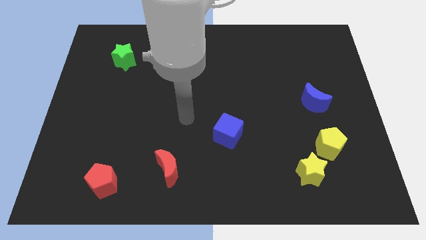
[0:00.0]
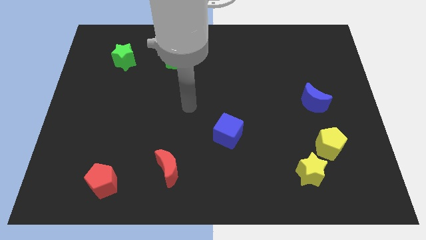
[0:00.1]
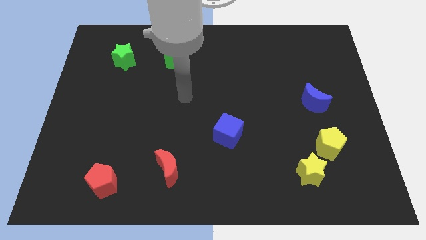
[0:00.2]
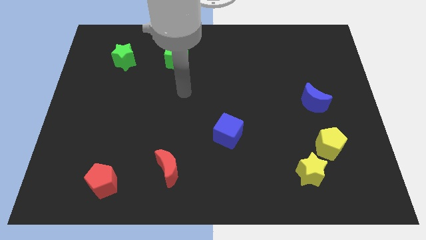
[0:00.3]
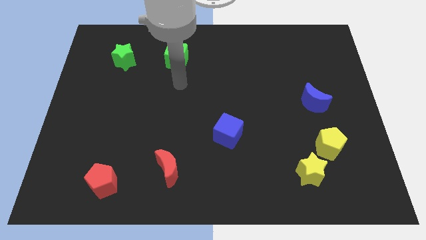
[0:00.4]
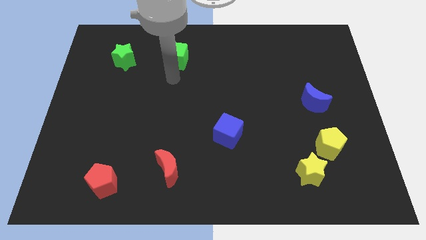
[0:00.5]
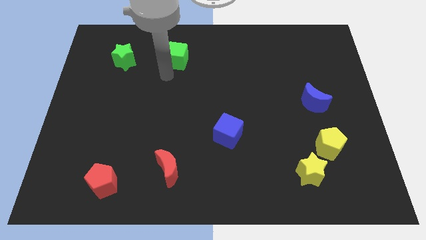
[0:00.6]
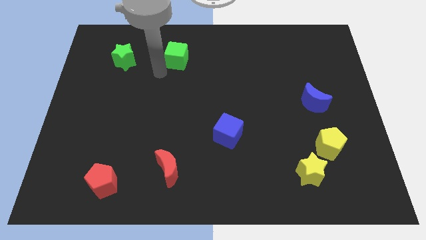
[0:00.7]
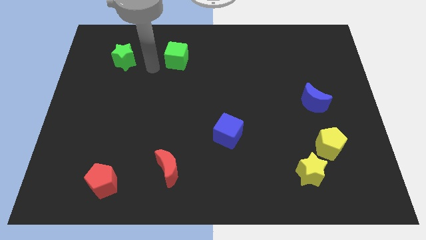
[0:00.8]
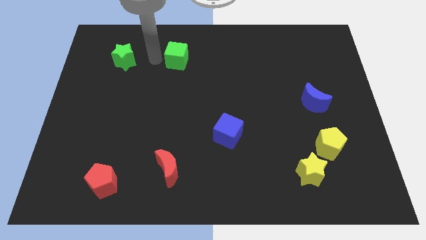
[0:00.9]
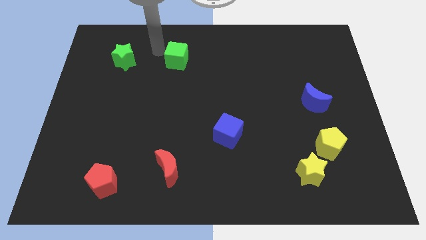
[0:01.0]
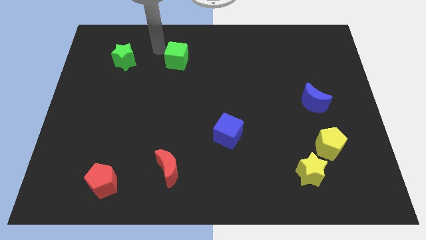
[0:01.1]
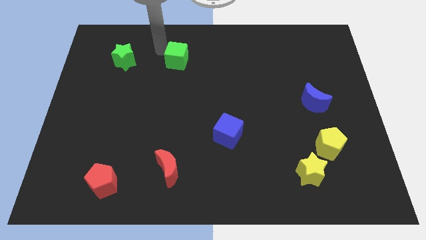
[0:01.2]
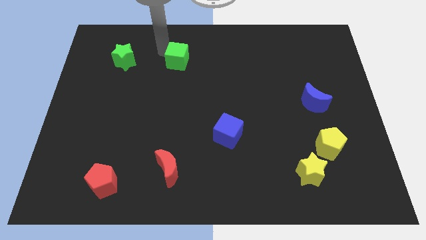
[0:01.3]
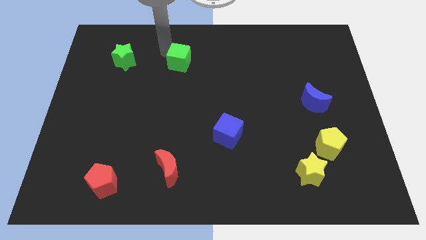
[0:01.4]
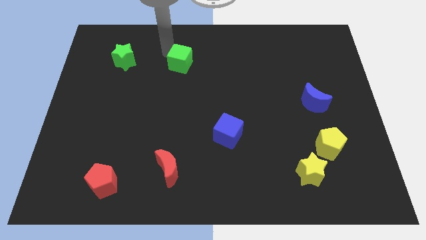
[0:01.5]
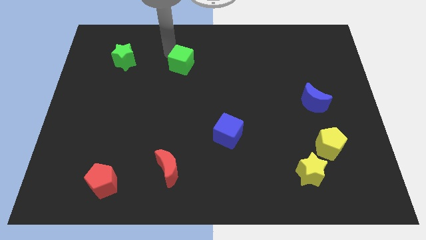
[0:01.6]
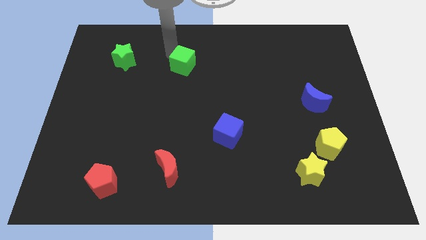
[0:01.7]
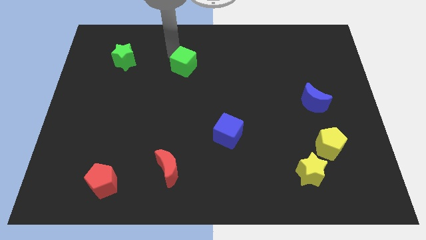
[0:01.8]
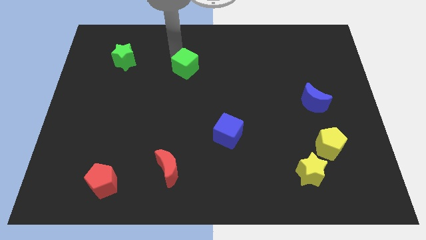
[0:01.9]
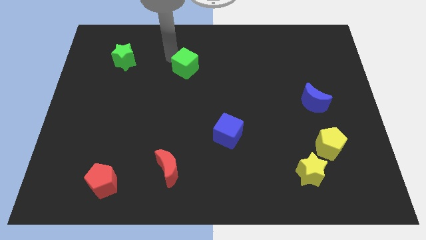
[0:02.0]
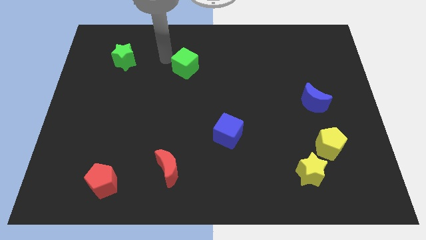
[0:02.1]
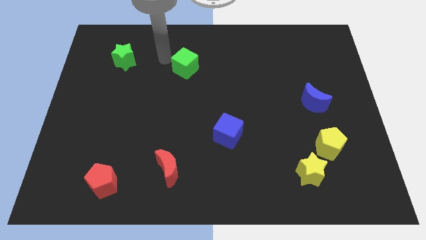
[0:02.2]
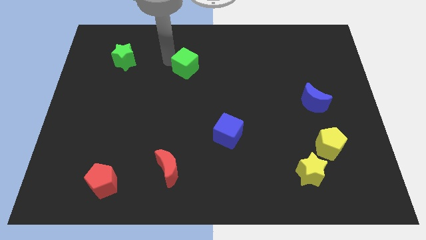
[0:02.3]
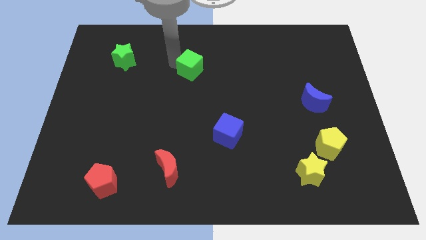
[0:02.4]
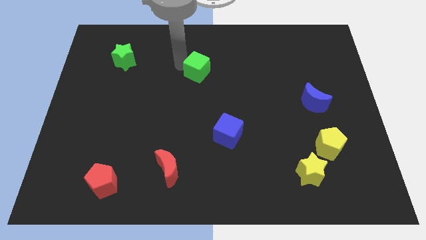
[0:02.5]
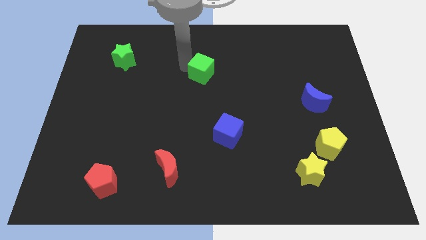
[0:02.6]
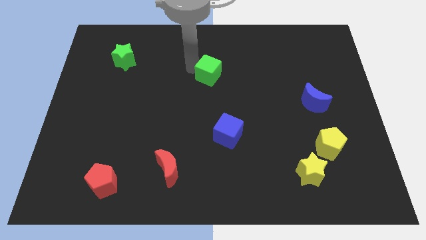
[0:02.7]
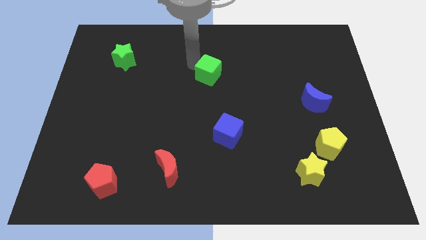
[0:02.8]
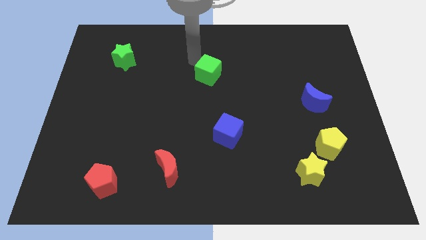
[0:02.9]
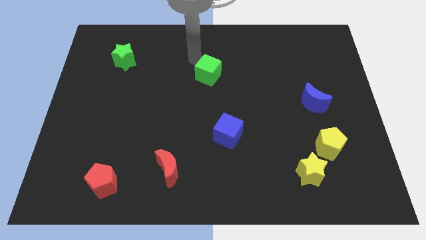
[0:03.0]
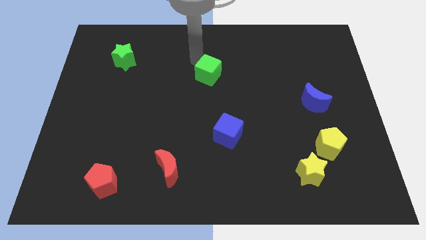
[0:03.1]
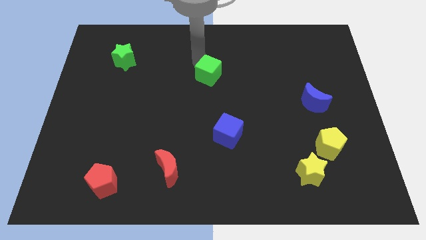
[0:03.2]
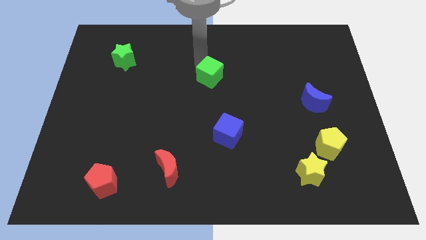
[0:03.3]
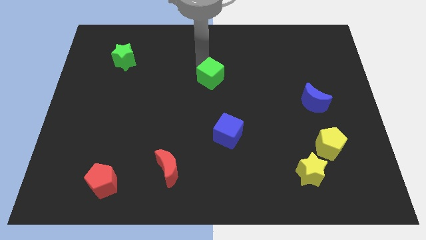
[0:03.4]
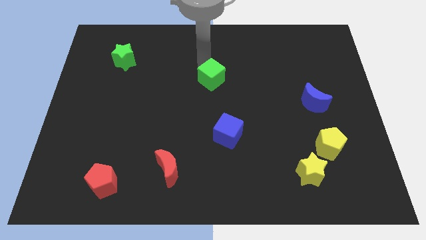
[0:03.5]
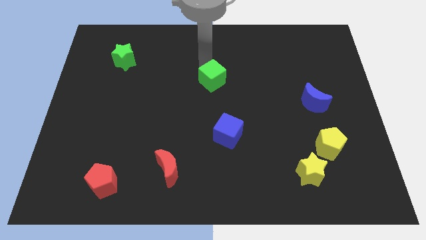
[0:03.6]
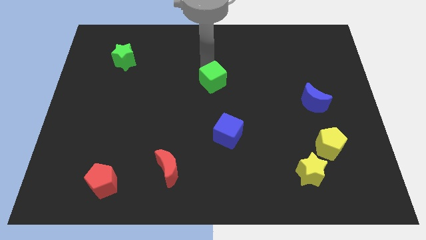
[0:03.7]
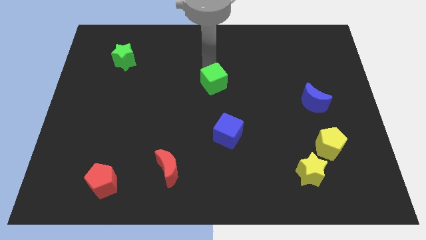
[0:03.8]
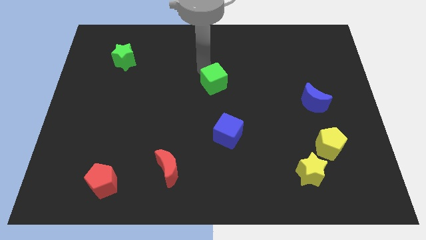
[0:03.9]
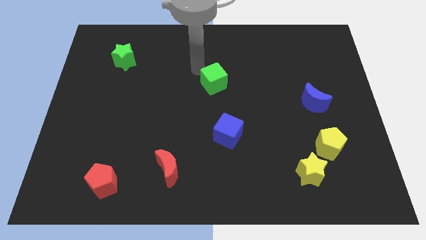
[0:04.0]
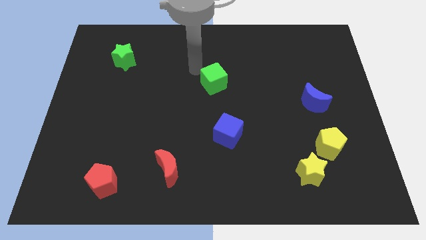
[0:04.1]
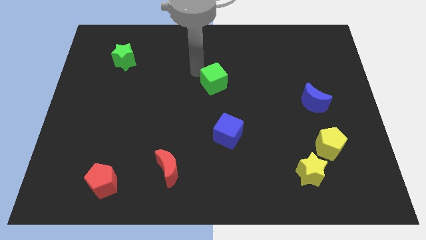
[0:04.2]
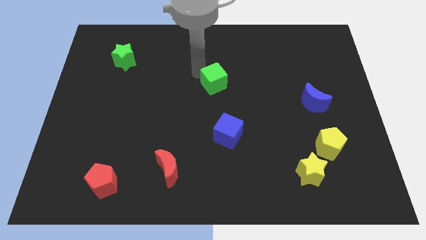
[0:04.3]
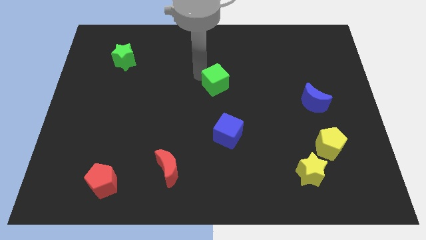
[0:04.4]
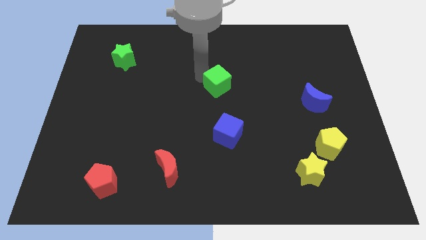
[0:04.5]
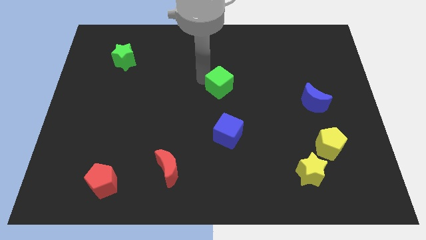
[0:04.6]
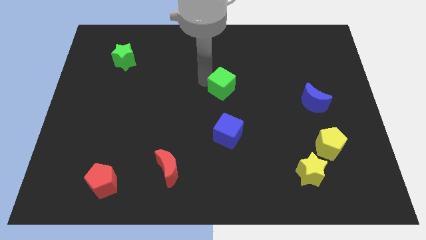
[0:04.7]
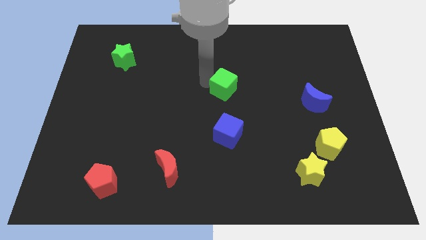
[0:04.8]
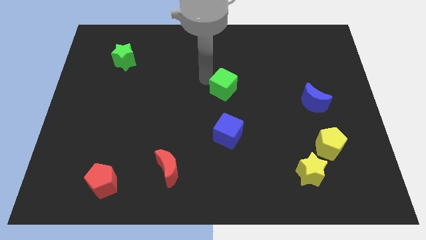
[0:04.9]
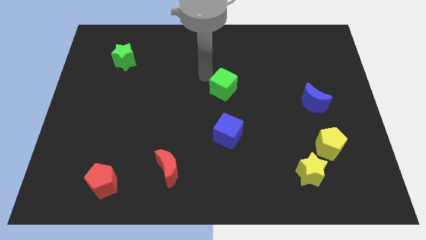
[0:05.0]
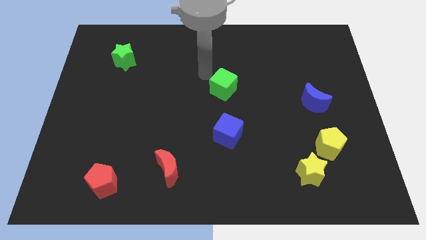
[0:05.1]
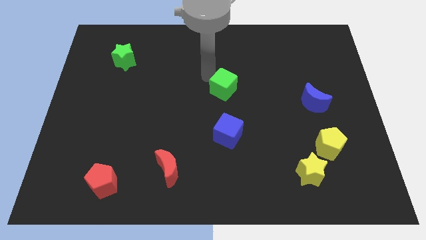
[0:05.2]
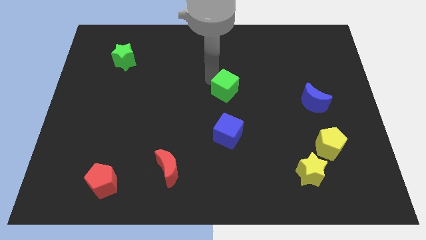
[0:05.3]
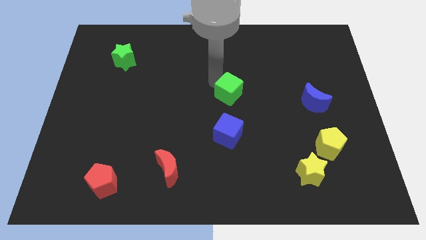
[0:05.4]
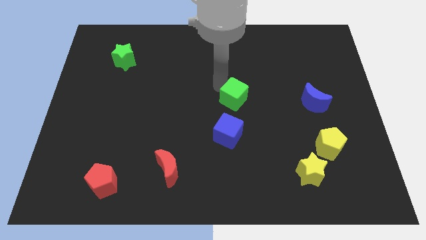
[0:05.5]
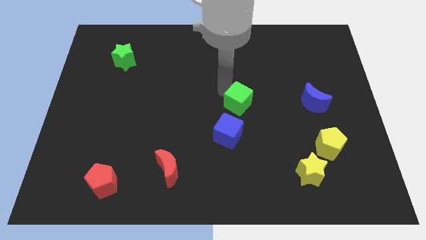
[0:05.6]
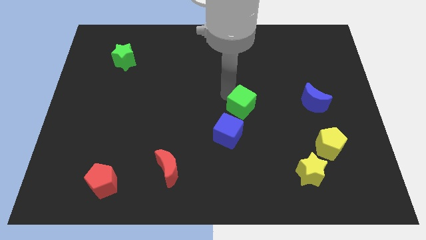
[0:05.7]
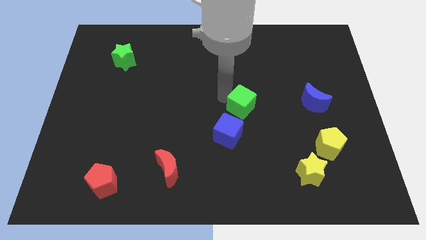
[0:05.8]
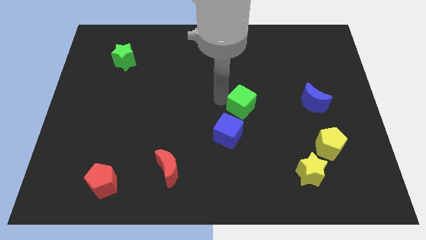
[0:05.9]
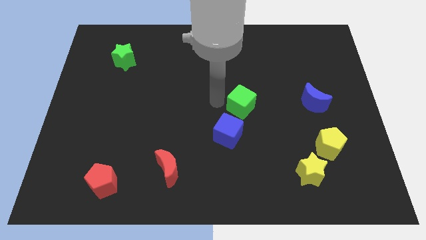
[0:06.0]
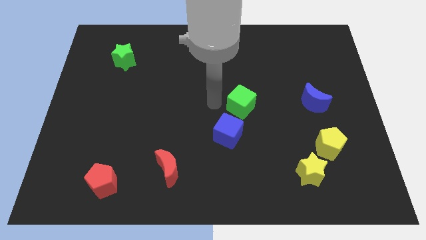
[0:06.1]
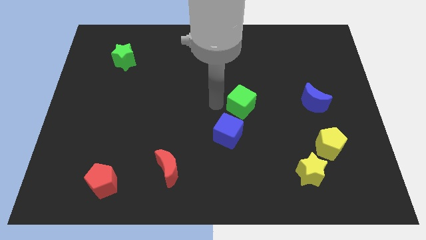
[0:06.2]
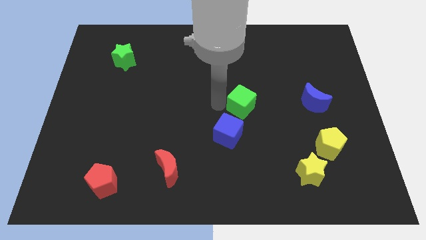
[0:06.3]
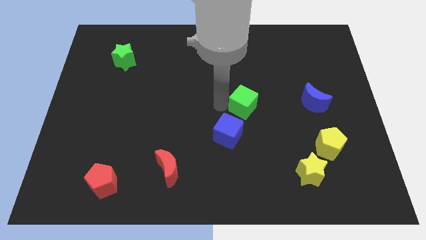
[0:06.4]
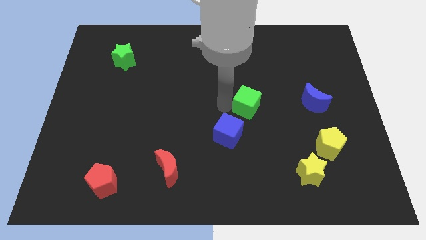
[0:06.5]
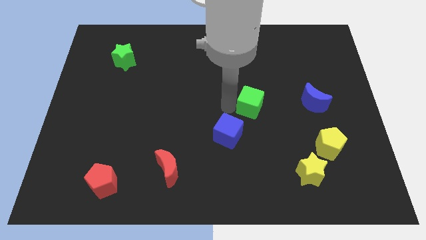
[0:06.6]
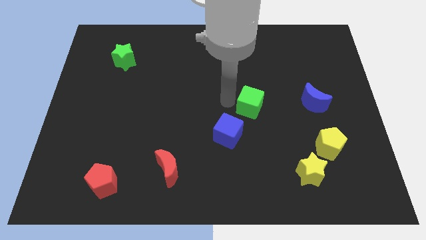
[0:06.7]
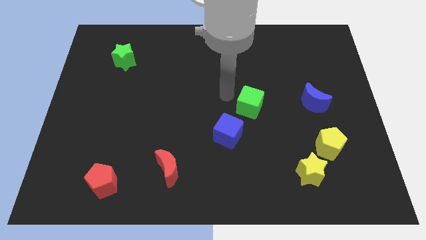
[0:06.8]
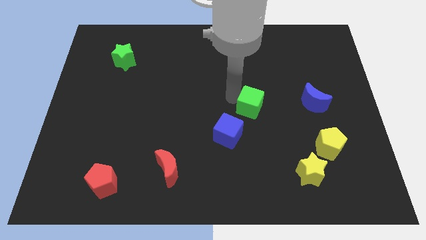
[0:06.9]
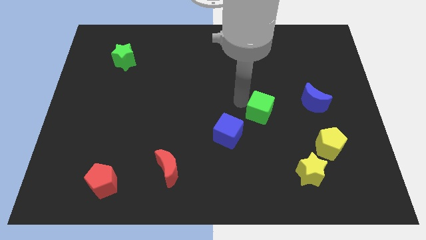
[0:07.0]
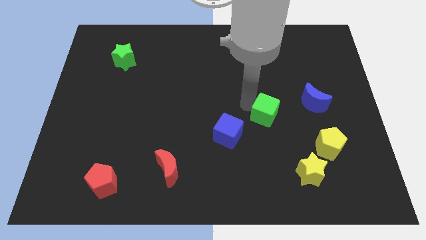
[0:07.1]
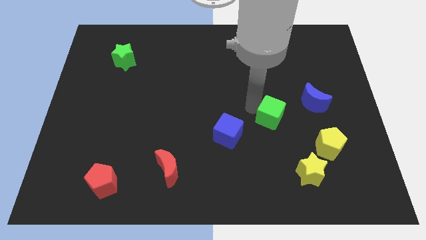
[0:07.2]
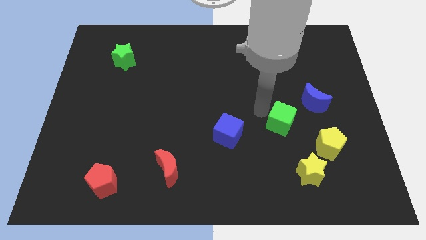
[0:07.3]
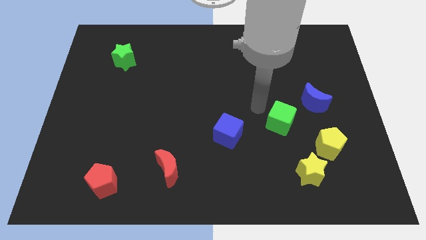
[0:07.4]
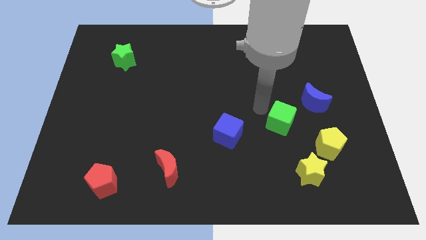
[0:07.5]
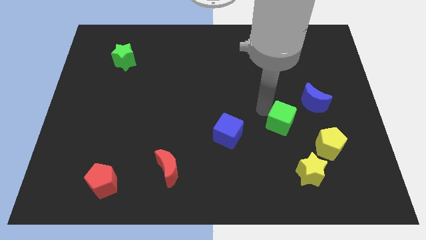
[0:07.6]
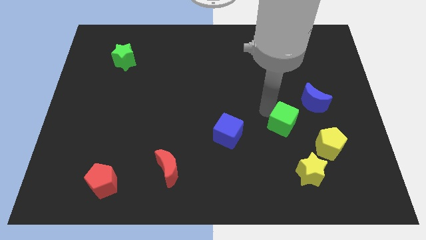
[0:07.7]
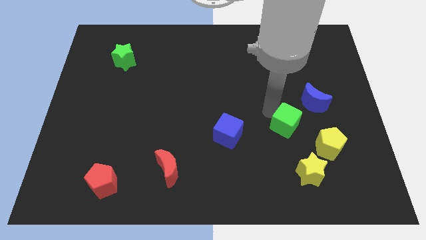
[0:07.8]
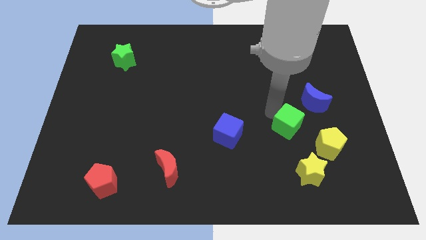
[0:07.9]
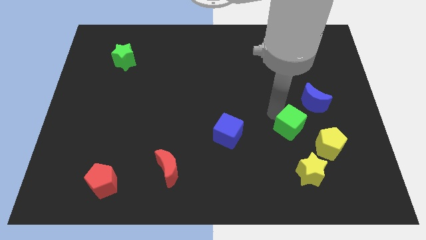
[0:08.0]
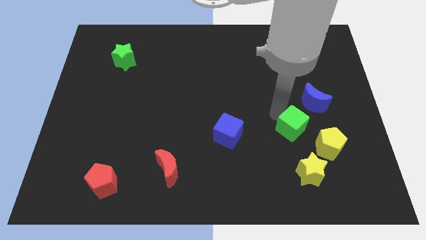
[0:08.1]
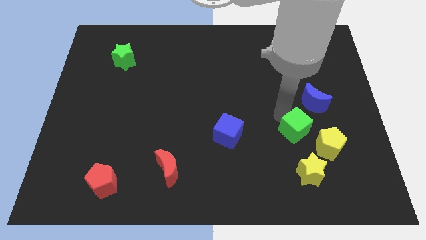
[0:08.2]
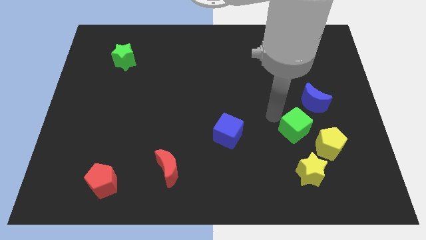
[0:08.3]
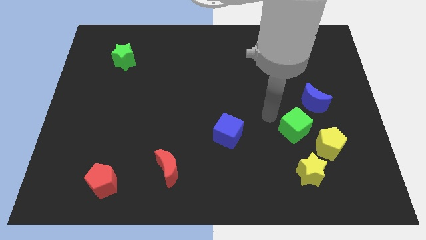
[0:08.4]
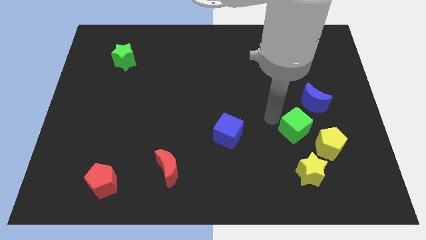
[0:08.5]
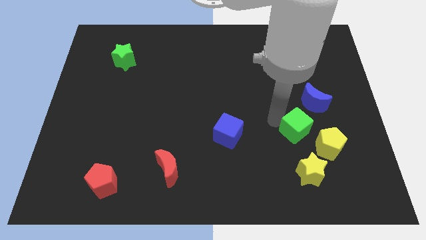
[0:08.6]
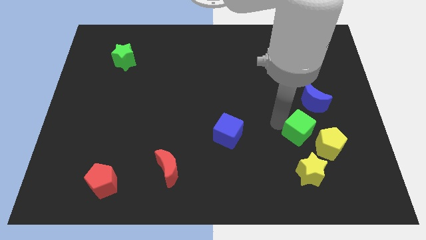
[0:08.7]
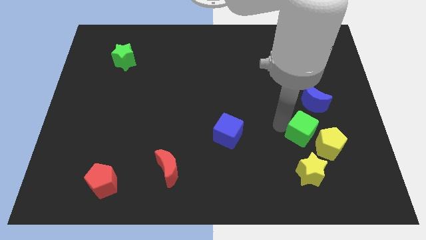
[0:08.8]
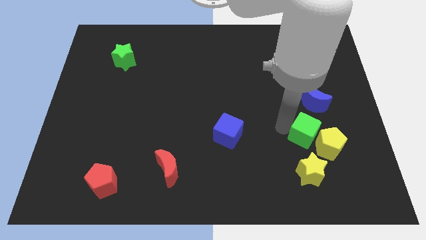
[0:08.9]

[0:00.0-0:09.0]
push the green cube towards the yellow pentagon
